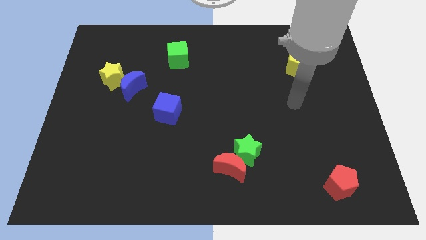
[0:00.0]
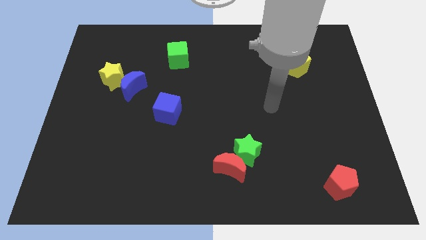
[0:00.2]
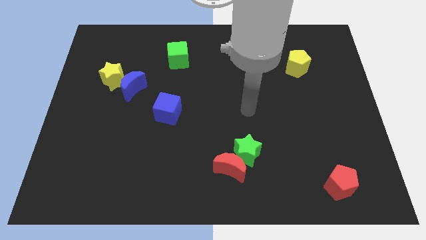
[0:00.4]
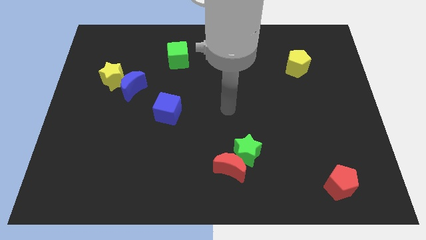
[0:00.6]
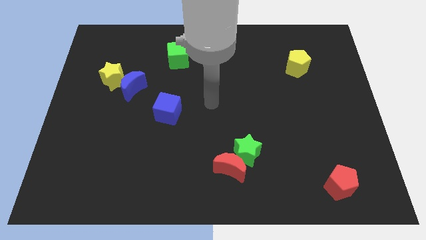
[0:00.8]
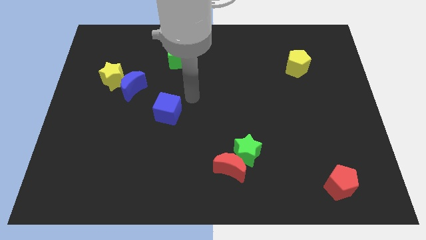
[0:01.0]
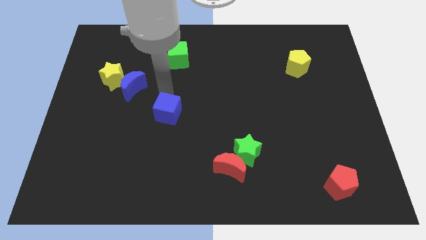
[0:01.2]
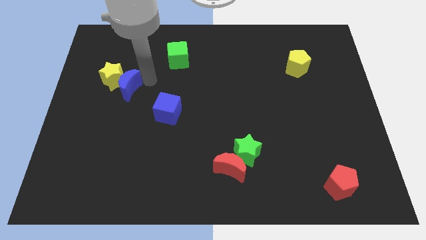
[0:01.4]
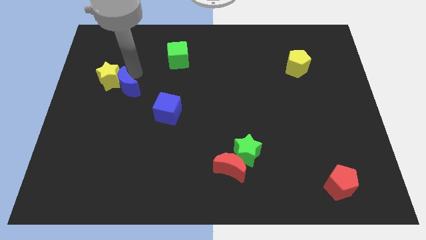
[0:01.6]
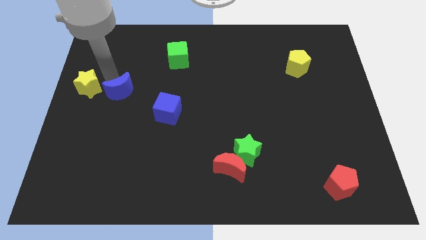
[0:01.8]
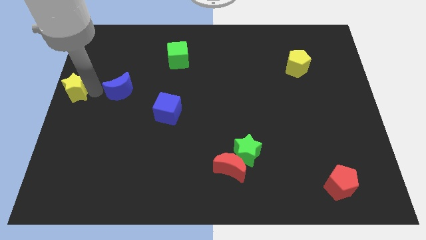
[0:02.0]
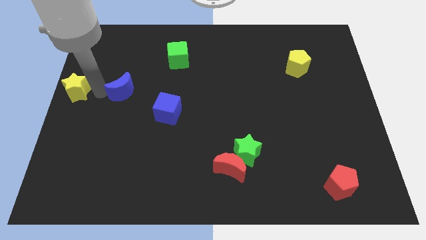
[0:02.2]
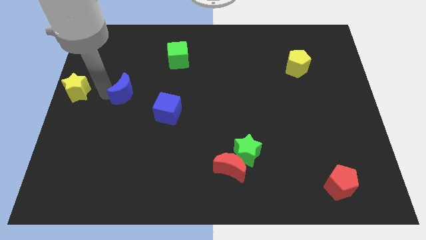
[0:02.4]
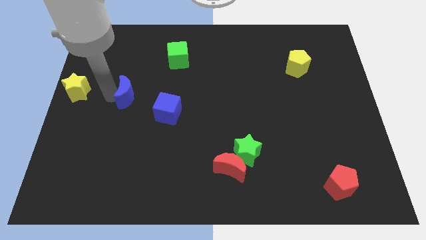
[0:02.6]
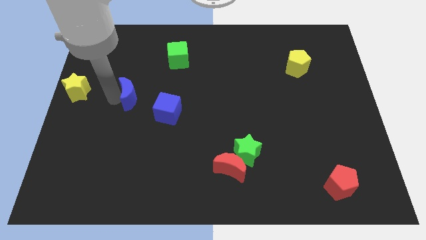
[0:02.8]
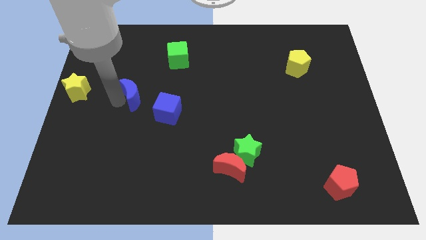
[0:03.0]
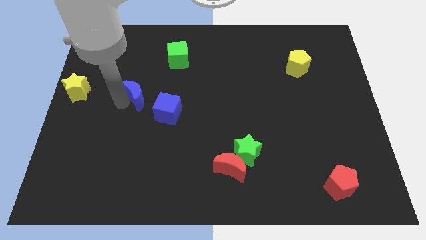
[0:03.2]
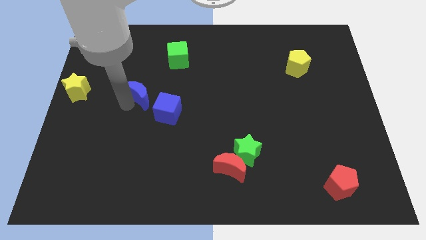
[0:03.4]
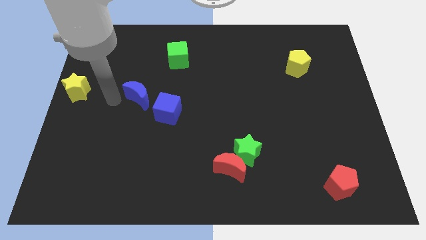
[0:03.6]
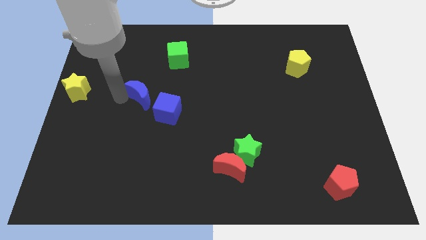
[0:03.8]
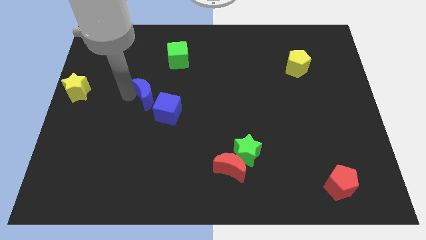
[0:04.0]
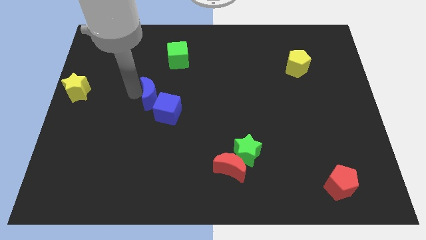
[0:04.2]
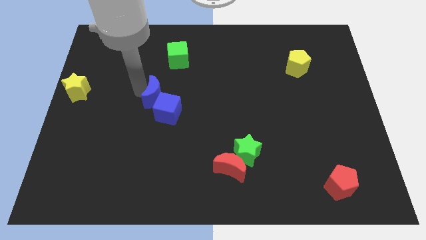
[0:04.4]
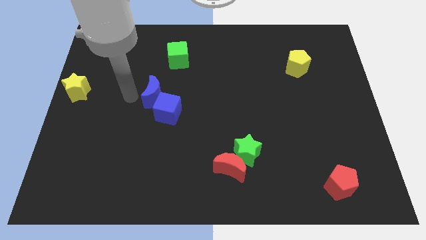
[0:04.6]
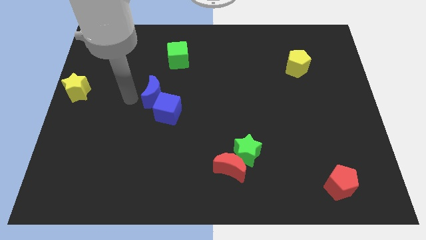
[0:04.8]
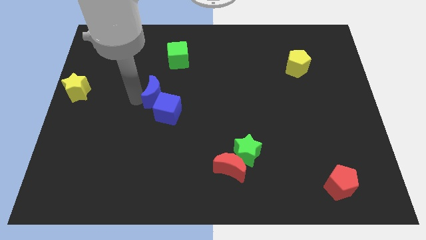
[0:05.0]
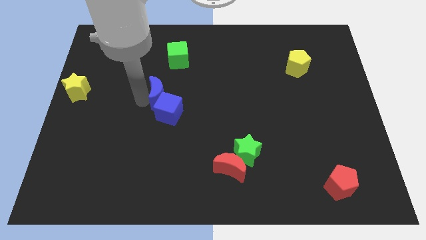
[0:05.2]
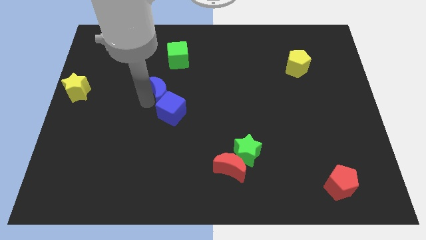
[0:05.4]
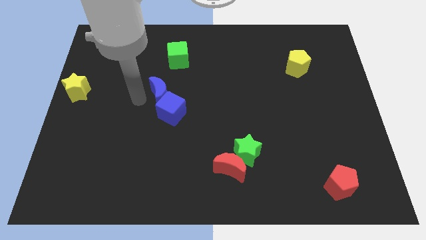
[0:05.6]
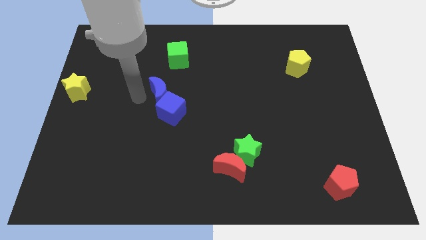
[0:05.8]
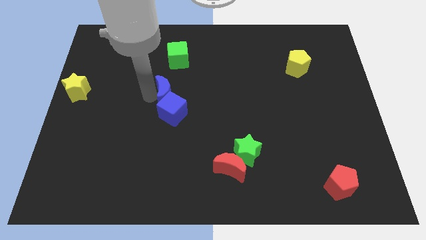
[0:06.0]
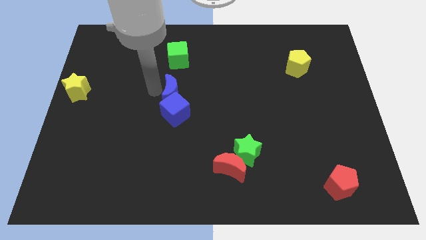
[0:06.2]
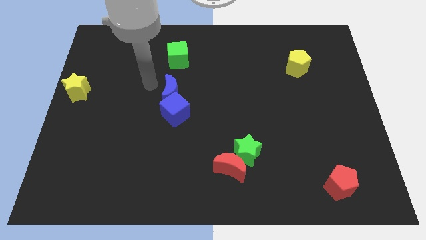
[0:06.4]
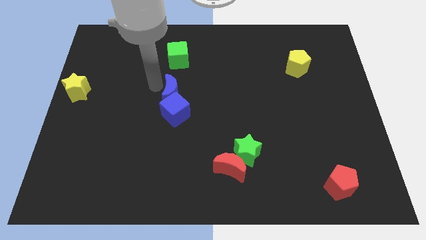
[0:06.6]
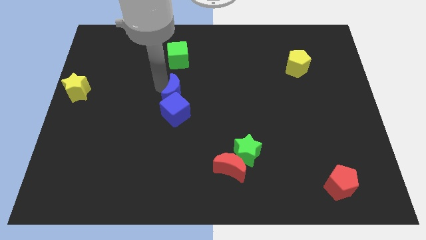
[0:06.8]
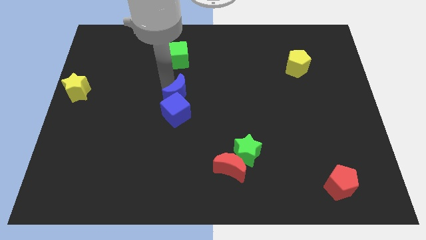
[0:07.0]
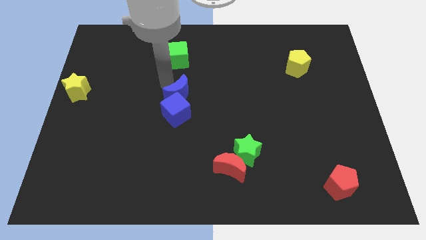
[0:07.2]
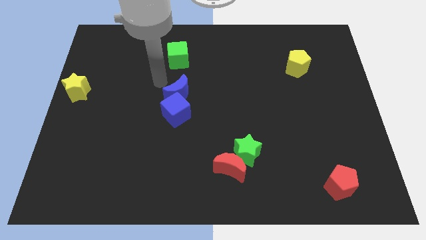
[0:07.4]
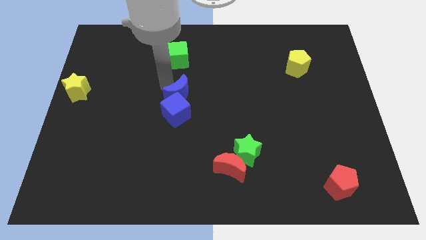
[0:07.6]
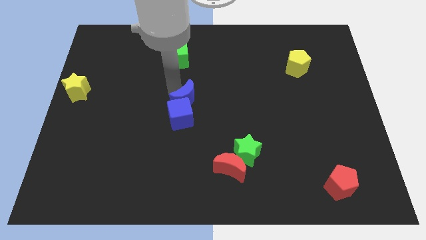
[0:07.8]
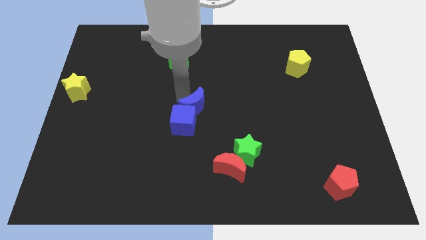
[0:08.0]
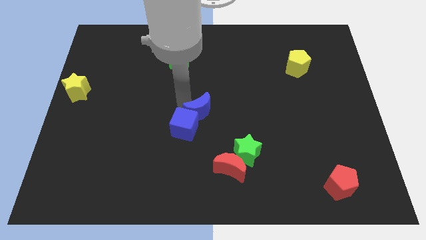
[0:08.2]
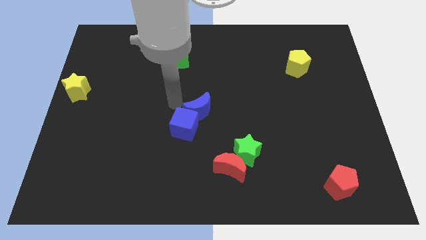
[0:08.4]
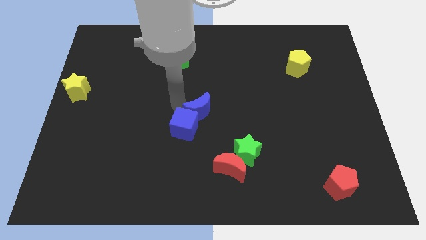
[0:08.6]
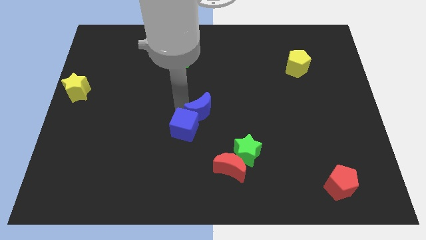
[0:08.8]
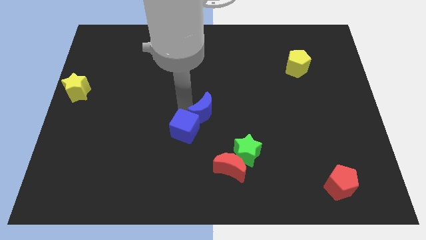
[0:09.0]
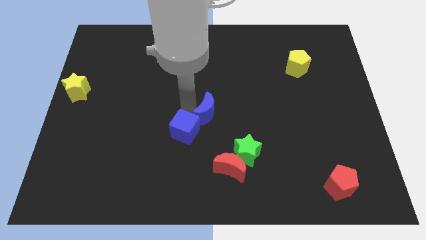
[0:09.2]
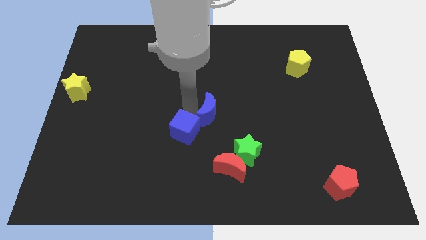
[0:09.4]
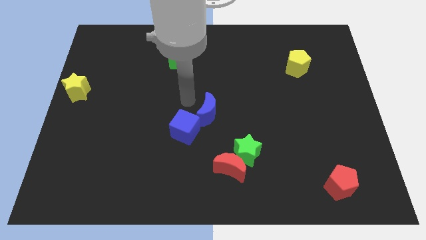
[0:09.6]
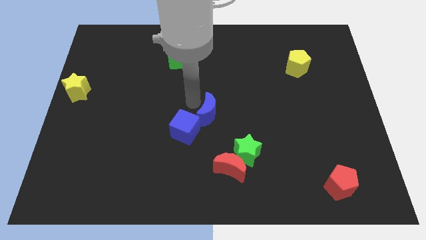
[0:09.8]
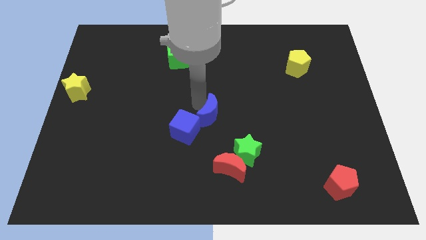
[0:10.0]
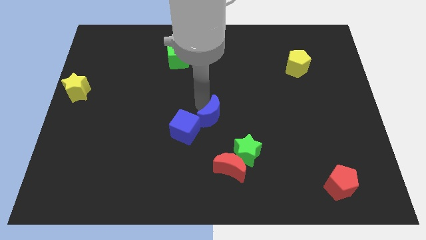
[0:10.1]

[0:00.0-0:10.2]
move the blue moon above the red moon

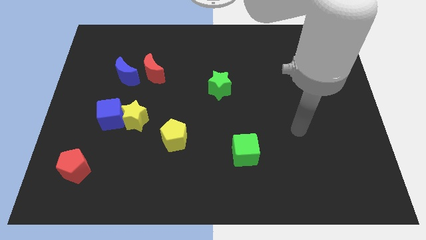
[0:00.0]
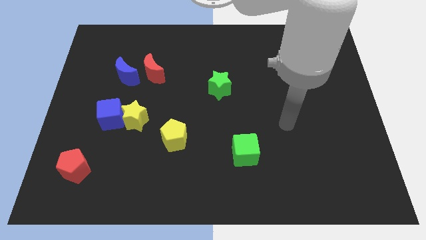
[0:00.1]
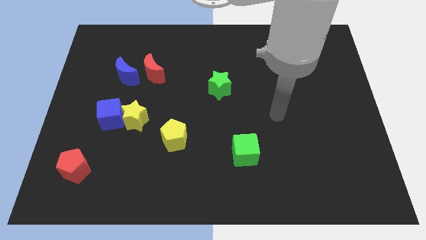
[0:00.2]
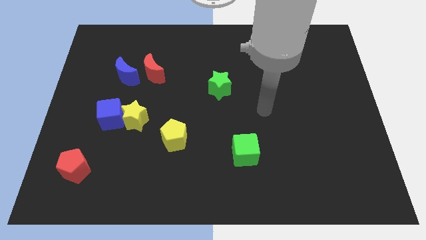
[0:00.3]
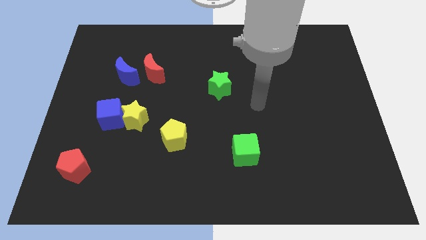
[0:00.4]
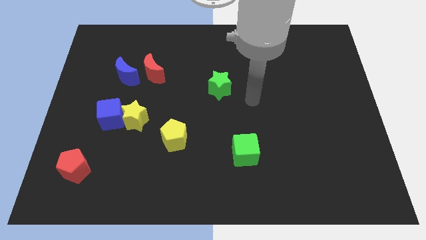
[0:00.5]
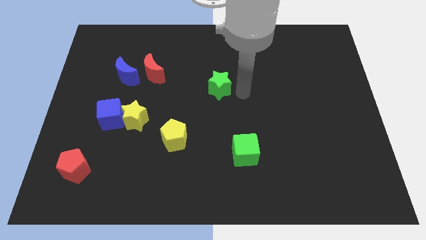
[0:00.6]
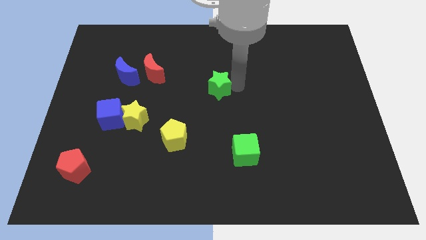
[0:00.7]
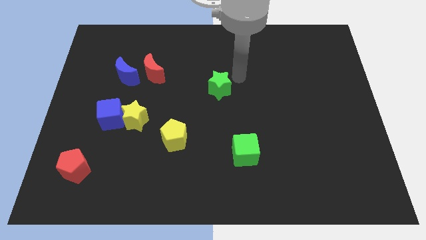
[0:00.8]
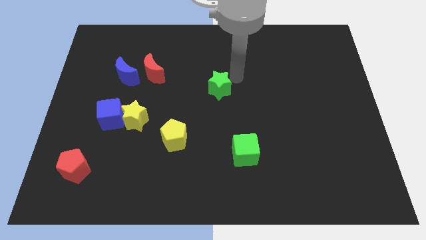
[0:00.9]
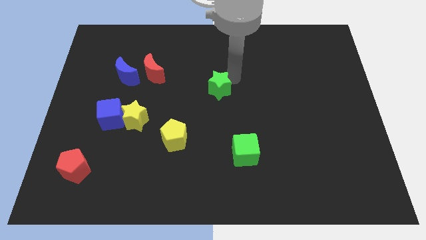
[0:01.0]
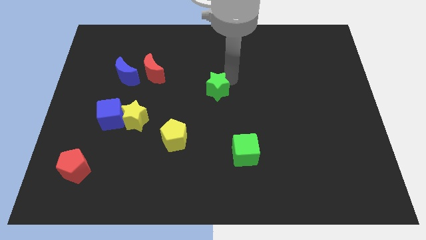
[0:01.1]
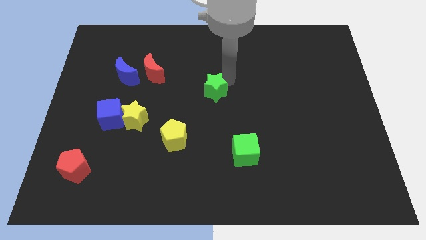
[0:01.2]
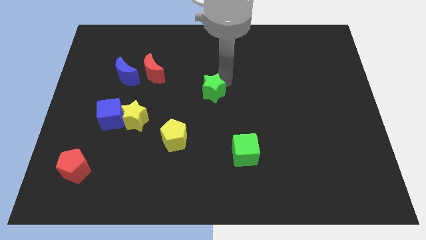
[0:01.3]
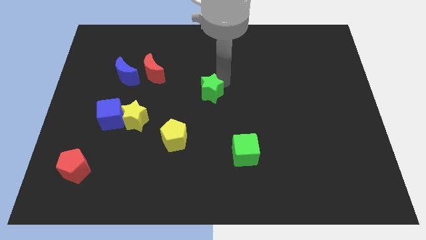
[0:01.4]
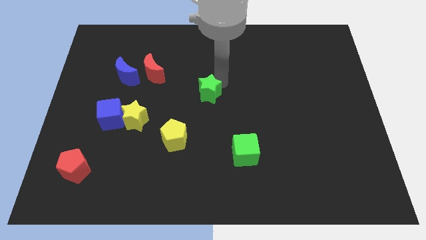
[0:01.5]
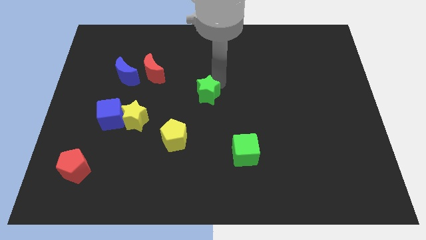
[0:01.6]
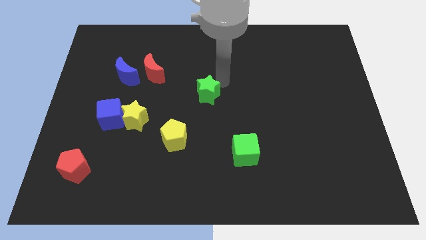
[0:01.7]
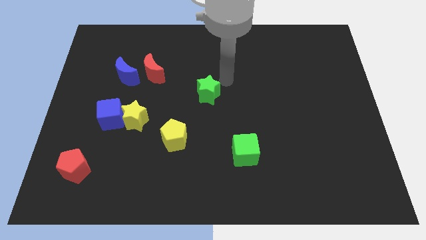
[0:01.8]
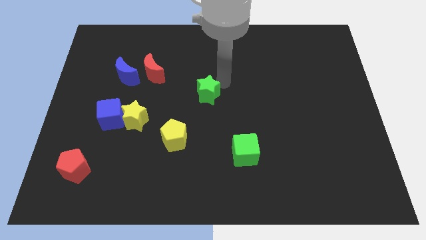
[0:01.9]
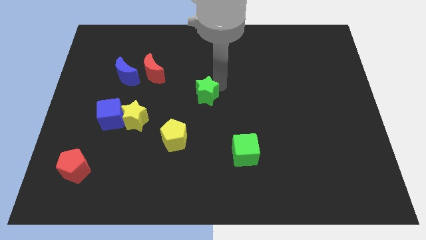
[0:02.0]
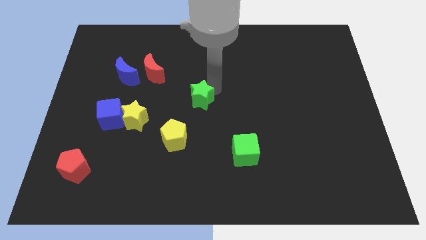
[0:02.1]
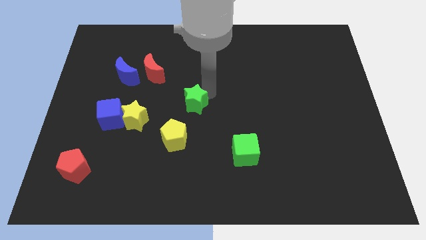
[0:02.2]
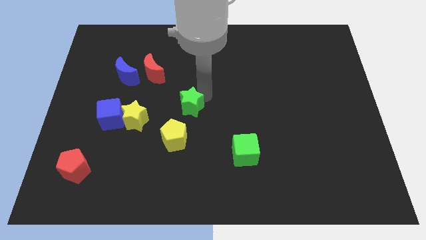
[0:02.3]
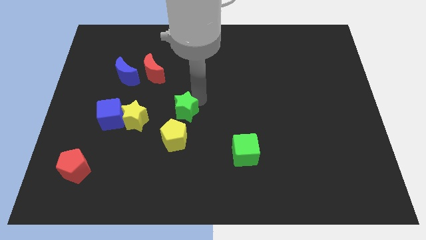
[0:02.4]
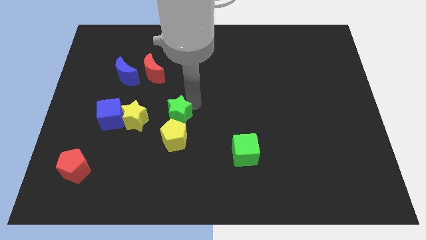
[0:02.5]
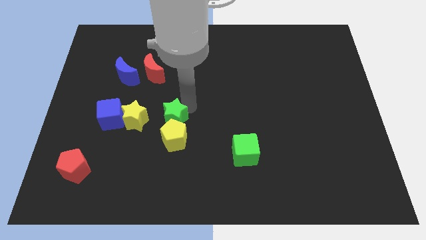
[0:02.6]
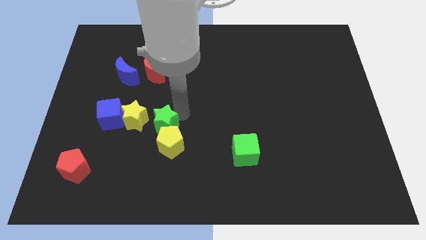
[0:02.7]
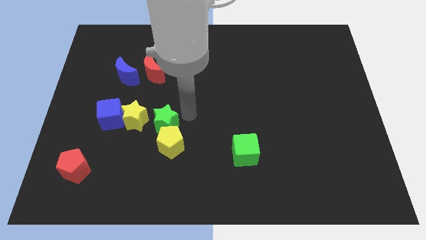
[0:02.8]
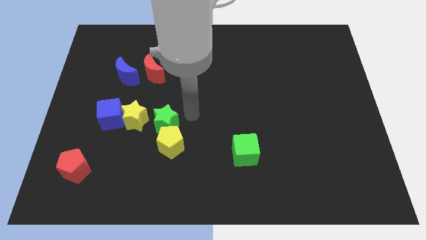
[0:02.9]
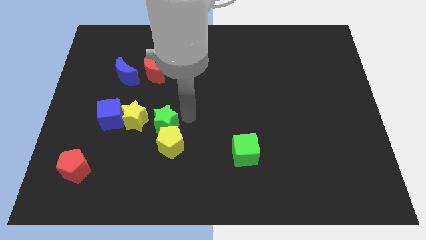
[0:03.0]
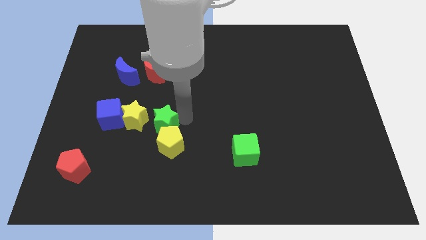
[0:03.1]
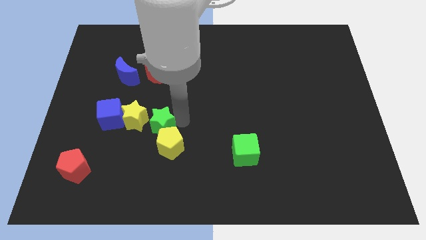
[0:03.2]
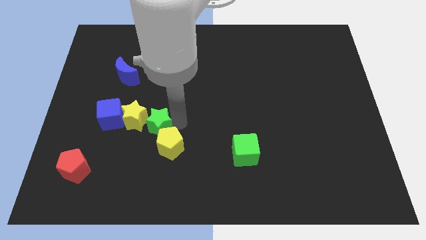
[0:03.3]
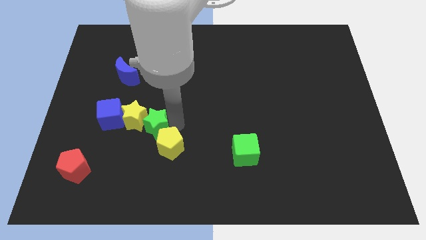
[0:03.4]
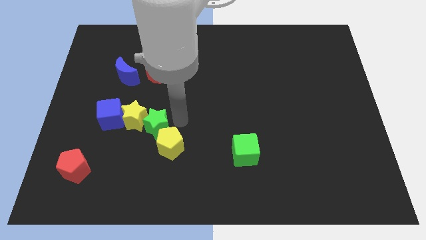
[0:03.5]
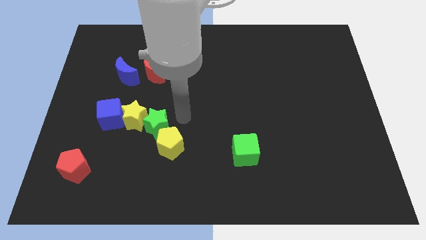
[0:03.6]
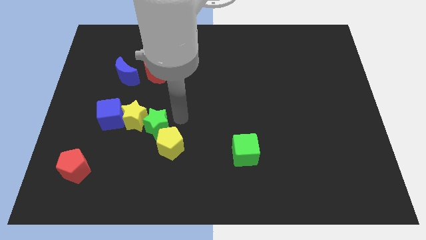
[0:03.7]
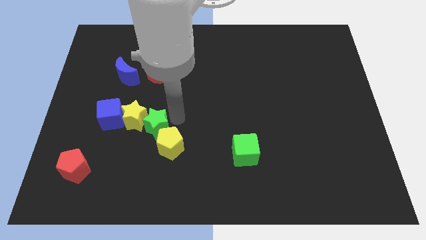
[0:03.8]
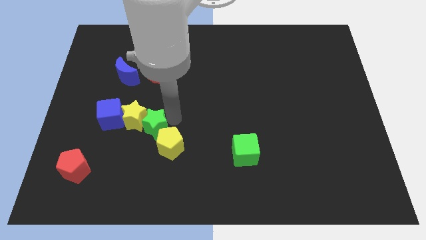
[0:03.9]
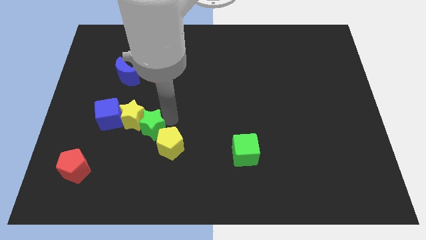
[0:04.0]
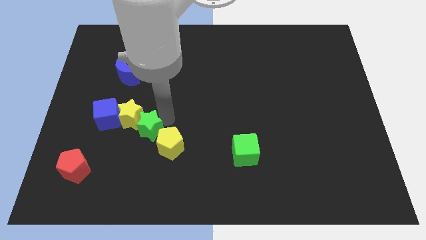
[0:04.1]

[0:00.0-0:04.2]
move the green star to the bottom right side of the blue cube
